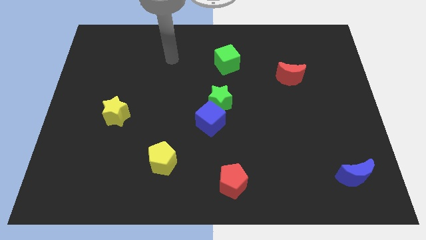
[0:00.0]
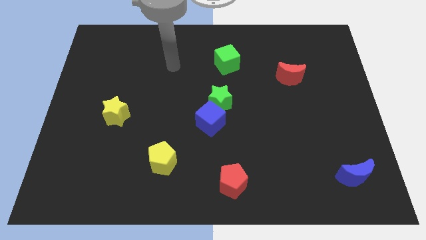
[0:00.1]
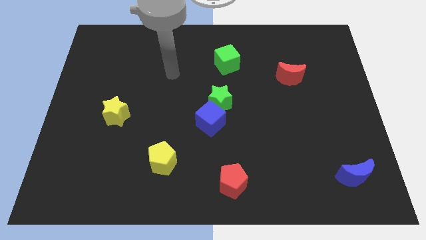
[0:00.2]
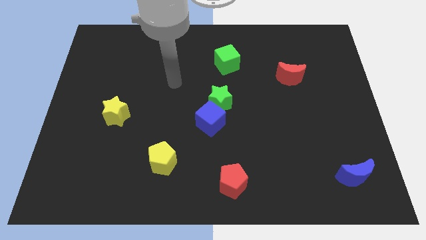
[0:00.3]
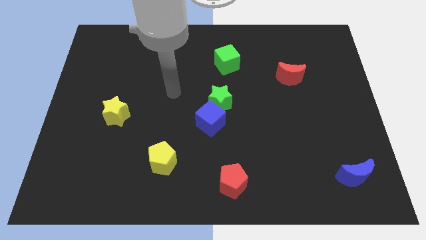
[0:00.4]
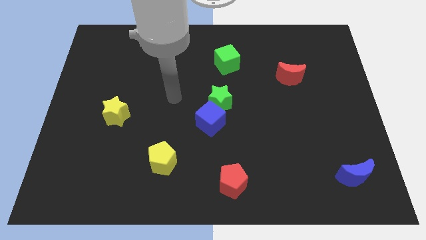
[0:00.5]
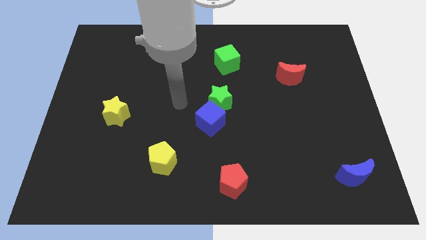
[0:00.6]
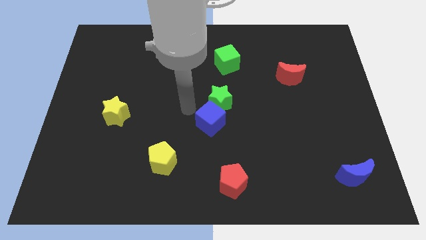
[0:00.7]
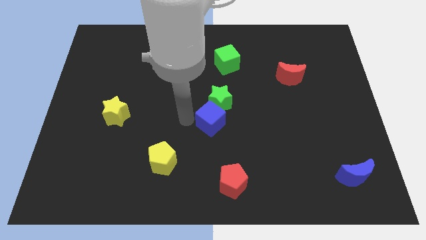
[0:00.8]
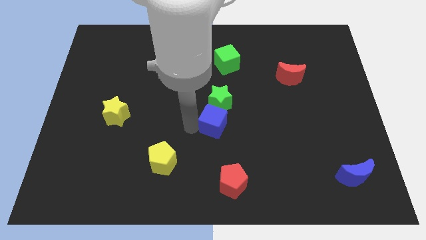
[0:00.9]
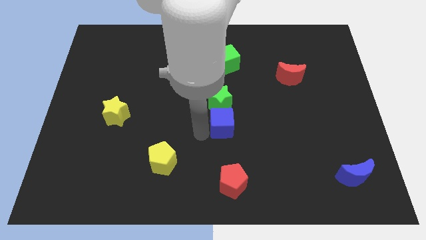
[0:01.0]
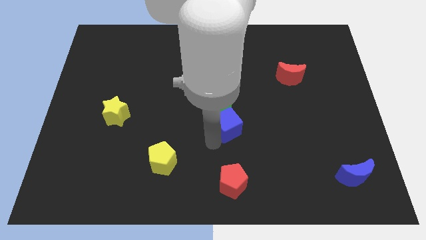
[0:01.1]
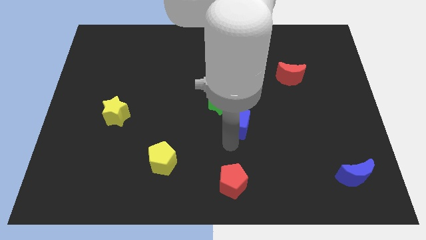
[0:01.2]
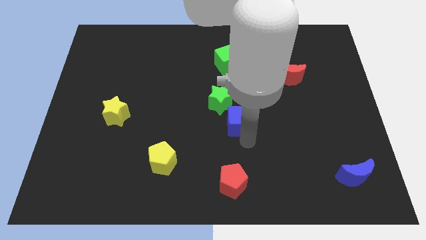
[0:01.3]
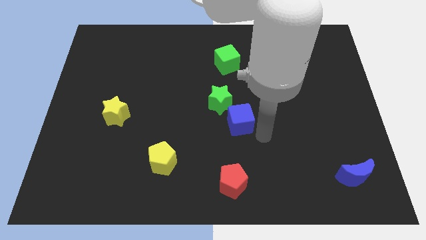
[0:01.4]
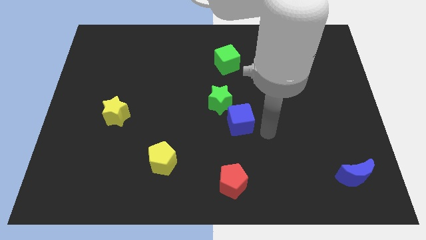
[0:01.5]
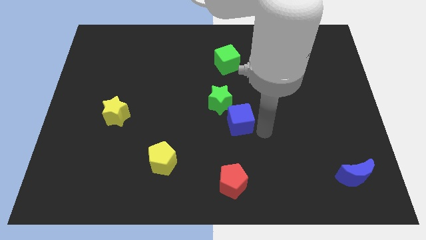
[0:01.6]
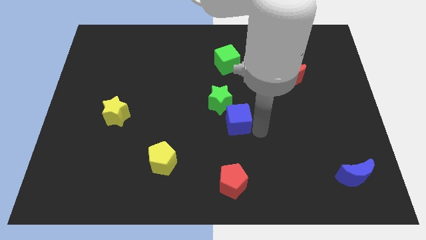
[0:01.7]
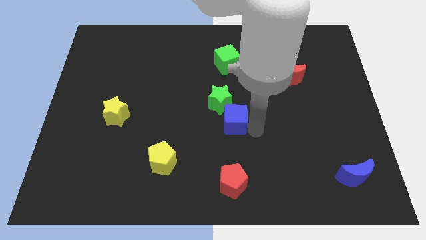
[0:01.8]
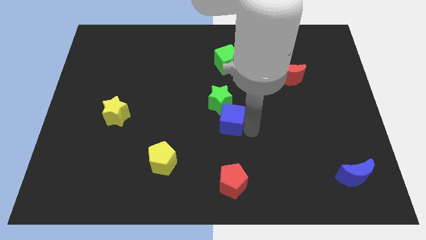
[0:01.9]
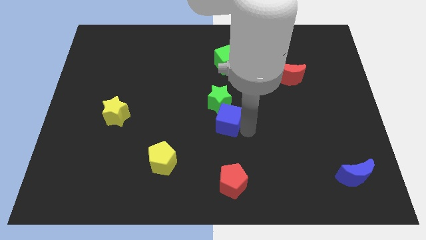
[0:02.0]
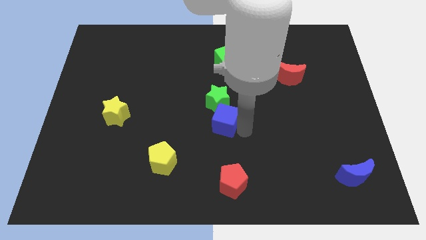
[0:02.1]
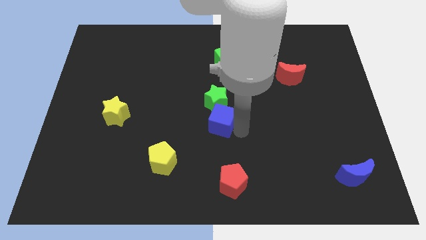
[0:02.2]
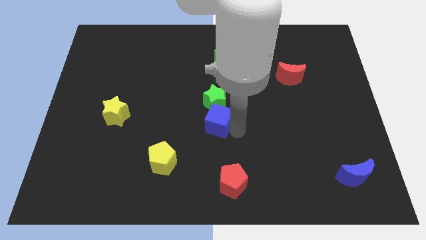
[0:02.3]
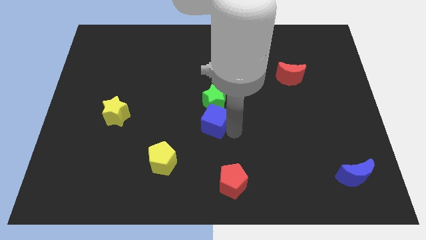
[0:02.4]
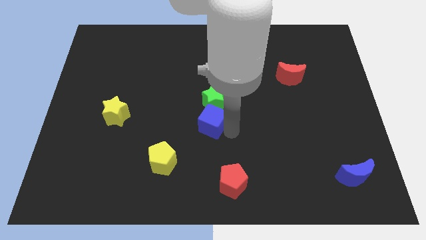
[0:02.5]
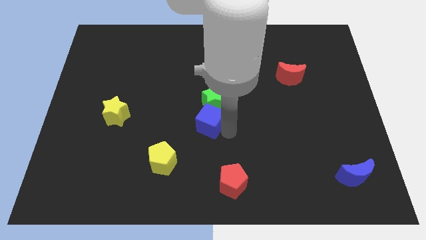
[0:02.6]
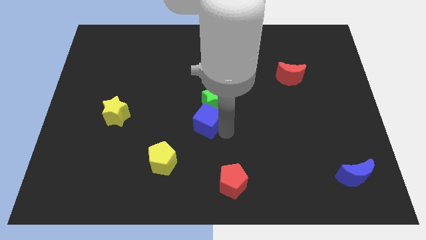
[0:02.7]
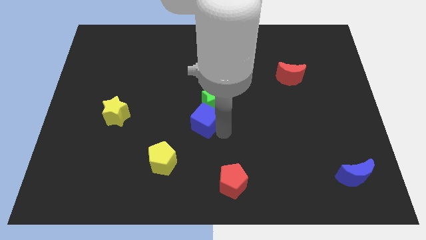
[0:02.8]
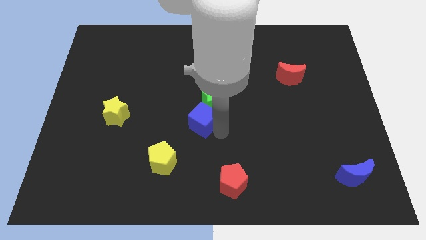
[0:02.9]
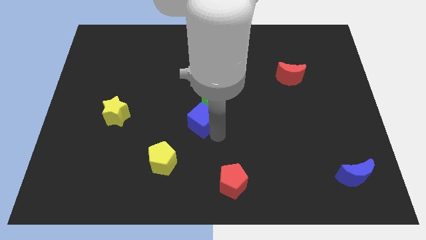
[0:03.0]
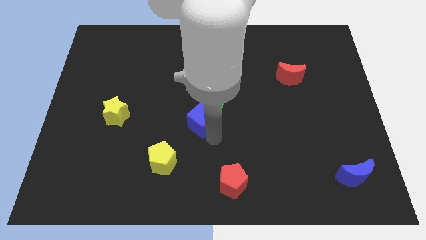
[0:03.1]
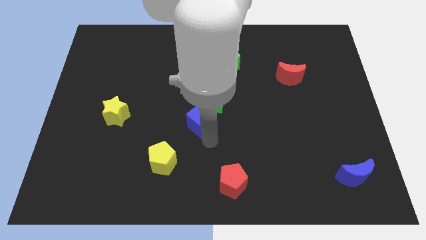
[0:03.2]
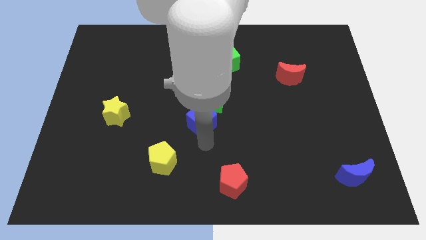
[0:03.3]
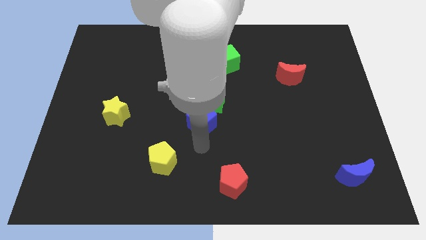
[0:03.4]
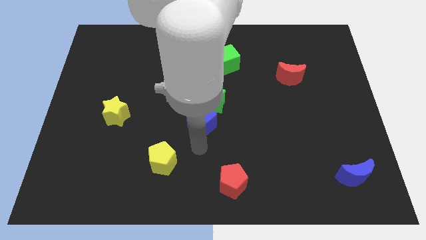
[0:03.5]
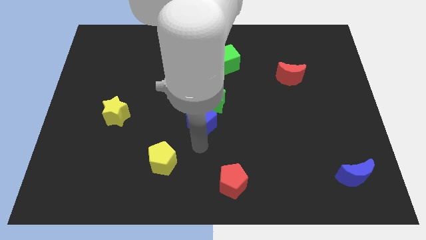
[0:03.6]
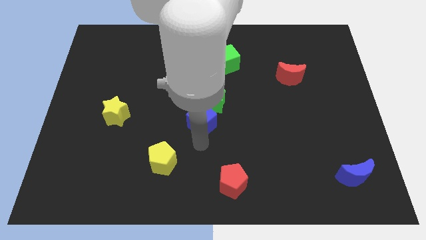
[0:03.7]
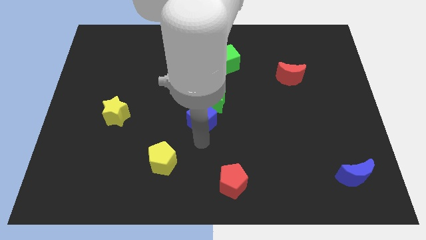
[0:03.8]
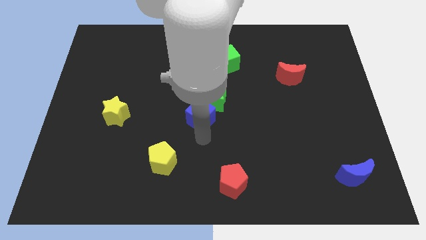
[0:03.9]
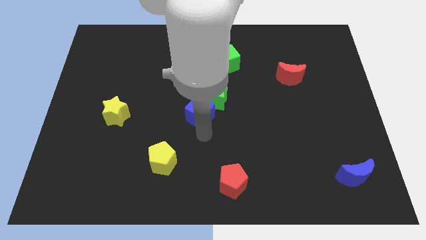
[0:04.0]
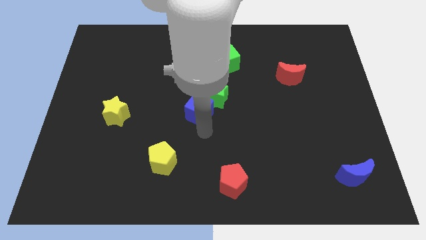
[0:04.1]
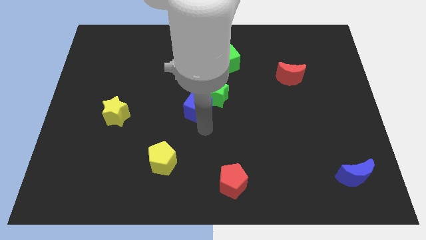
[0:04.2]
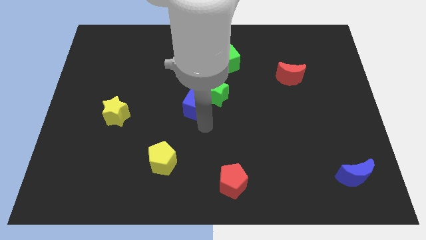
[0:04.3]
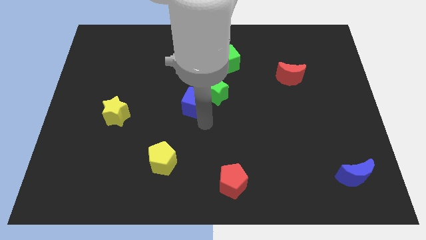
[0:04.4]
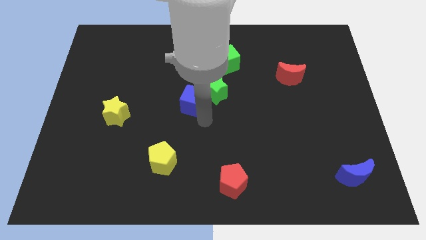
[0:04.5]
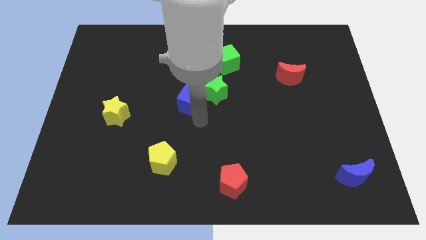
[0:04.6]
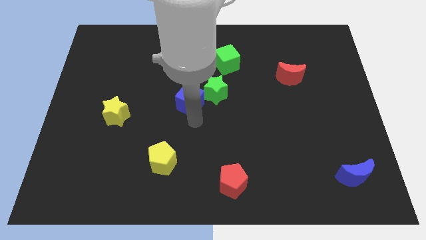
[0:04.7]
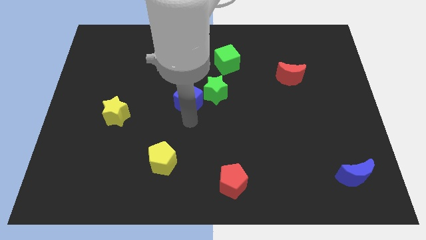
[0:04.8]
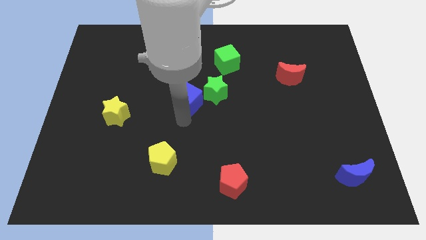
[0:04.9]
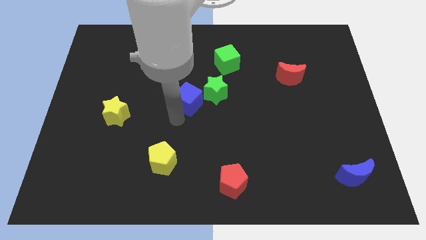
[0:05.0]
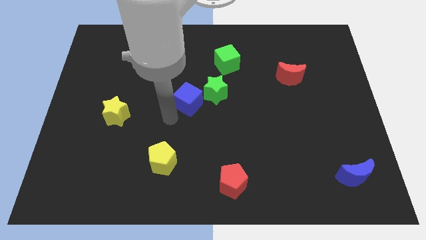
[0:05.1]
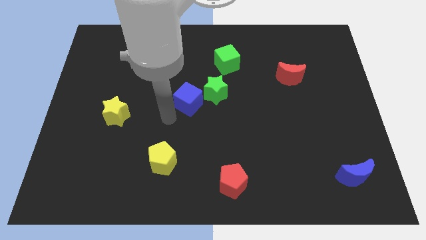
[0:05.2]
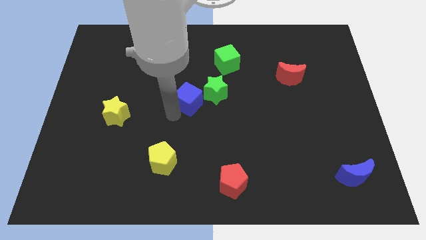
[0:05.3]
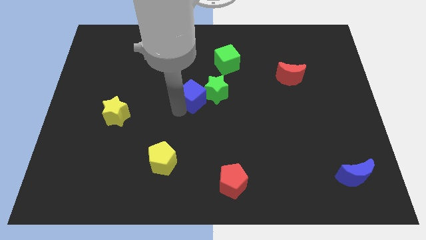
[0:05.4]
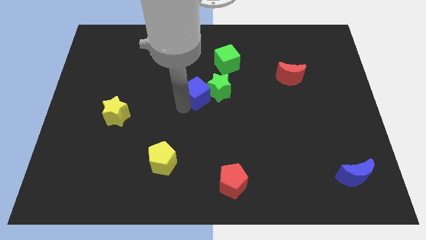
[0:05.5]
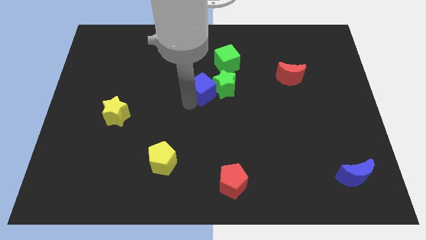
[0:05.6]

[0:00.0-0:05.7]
push the blue cube diagonally down and to the left of the green cube
